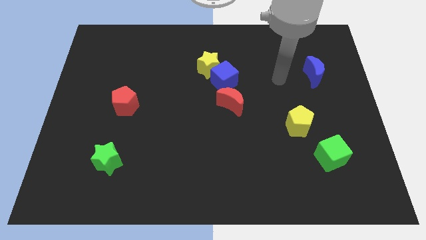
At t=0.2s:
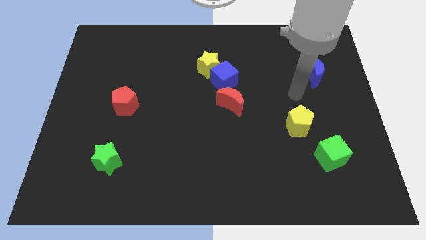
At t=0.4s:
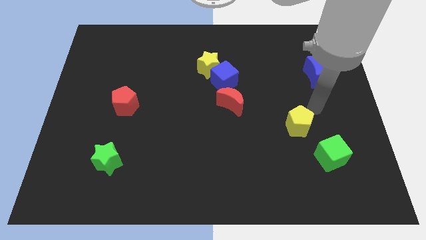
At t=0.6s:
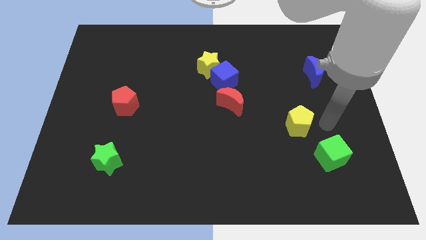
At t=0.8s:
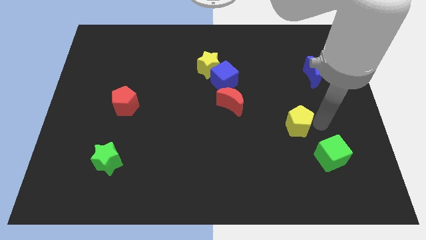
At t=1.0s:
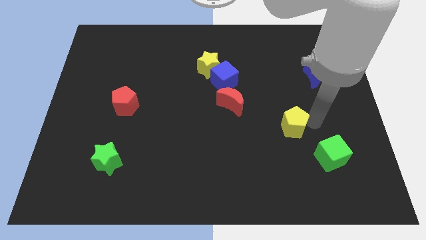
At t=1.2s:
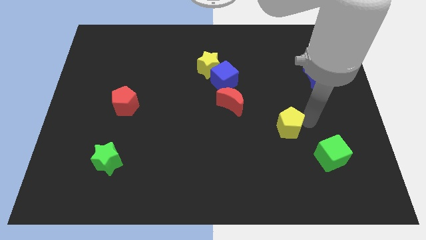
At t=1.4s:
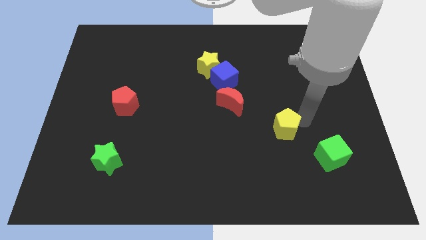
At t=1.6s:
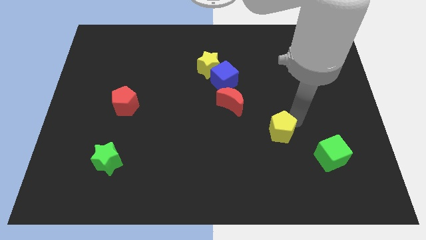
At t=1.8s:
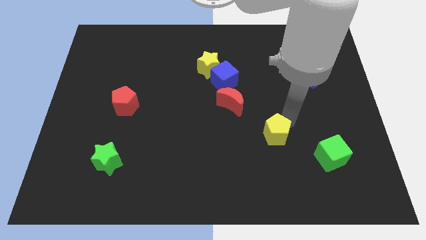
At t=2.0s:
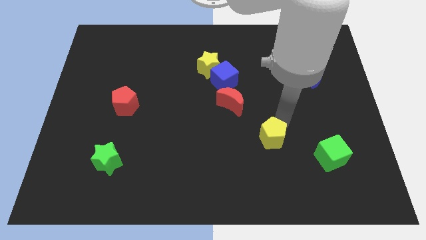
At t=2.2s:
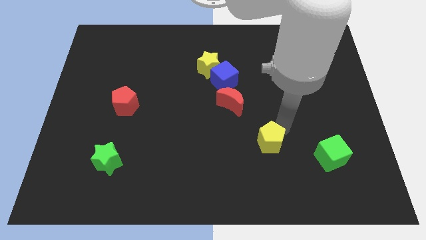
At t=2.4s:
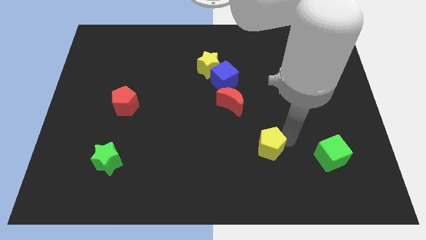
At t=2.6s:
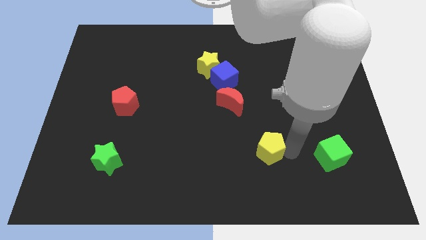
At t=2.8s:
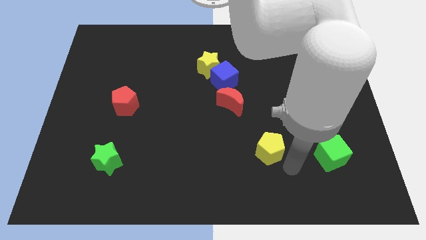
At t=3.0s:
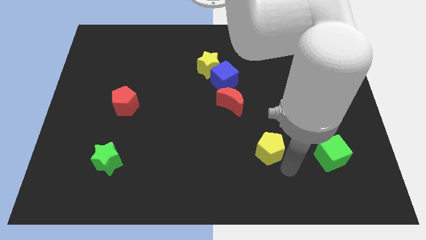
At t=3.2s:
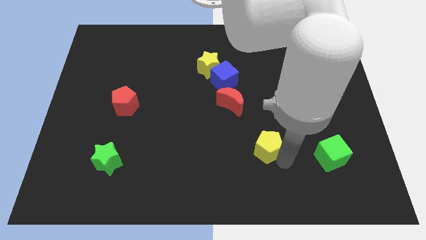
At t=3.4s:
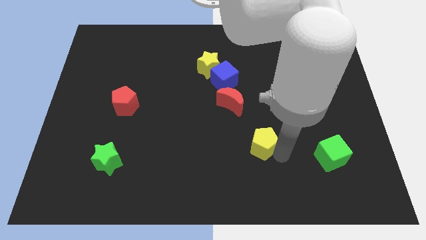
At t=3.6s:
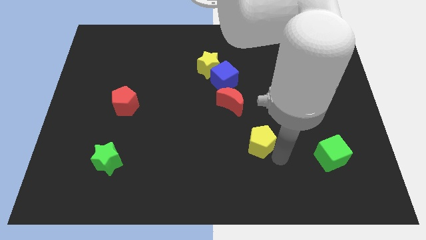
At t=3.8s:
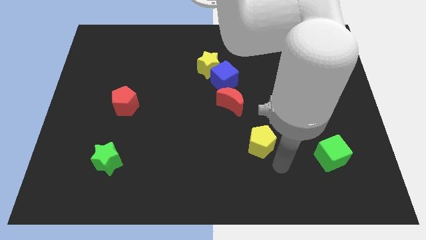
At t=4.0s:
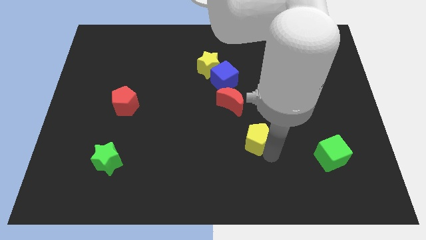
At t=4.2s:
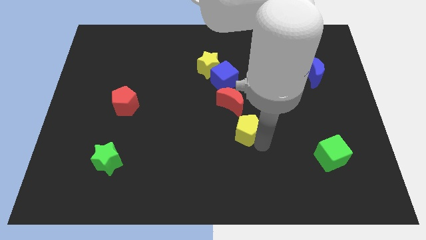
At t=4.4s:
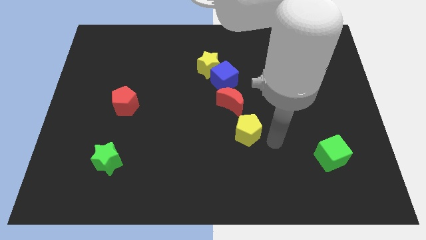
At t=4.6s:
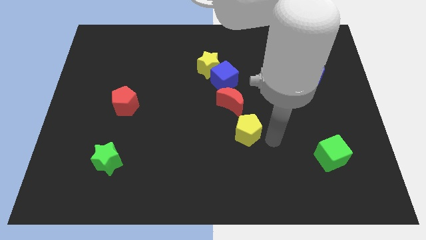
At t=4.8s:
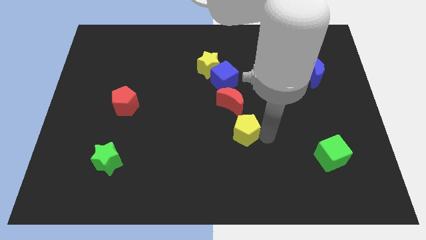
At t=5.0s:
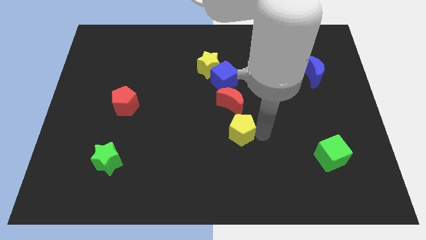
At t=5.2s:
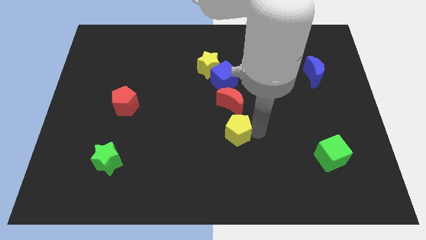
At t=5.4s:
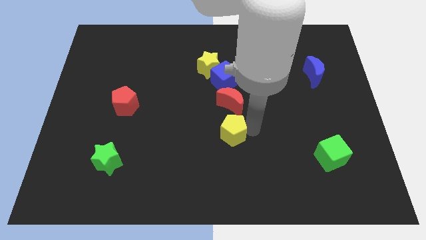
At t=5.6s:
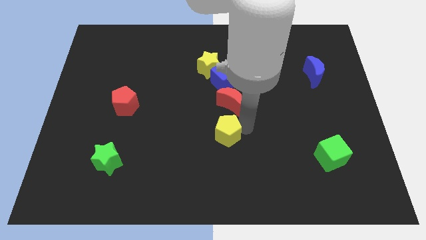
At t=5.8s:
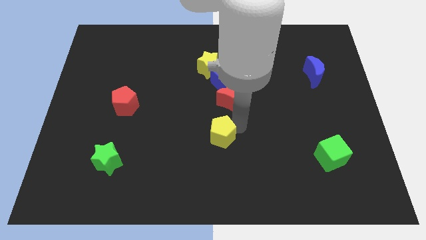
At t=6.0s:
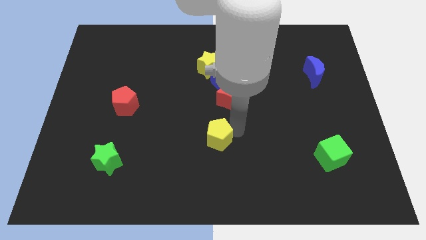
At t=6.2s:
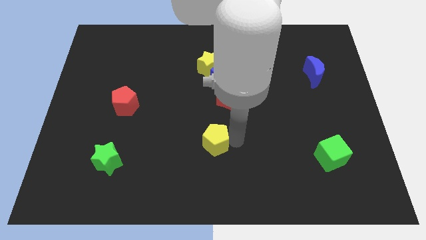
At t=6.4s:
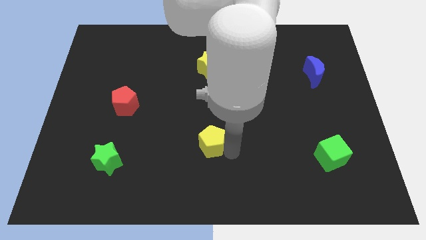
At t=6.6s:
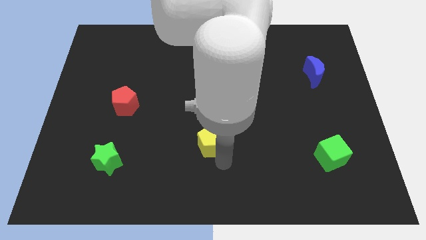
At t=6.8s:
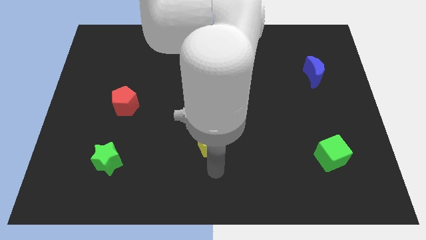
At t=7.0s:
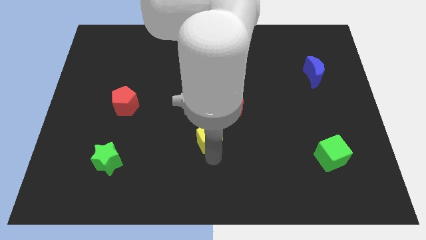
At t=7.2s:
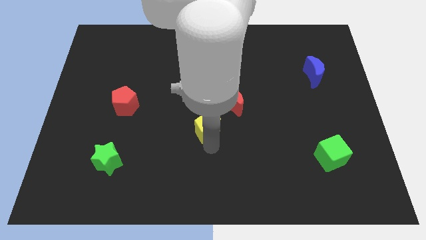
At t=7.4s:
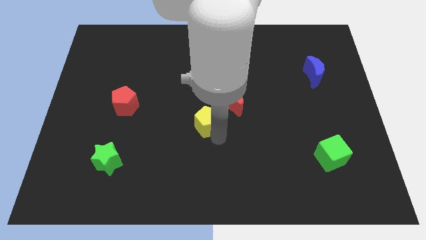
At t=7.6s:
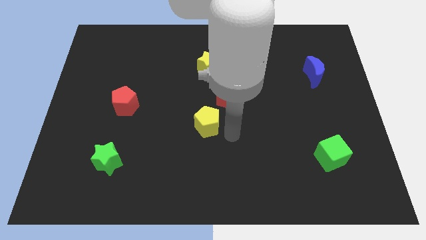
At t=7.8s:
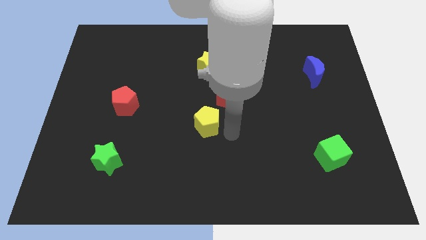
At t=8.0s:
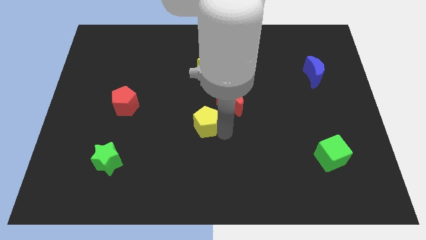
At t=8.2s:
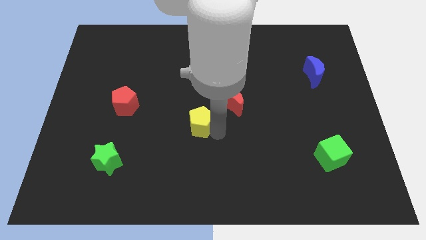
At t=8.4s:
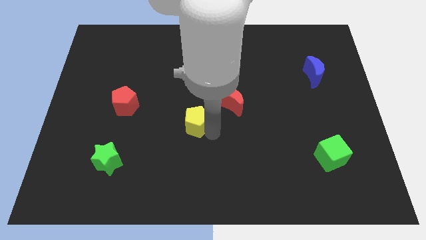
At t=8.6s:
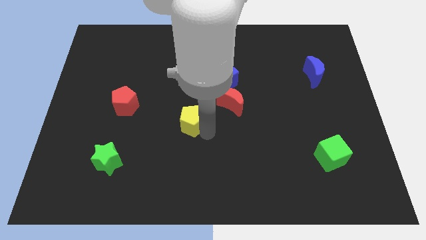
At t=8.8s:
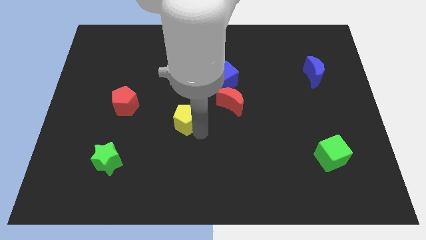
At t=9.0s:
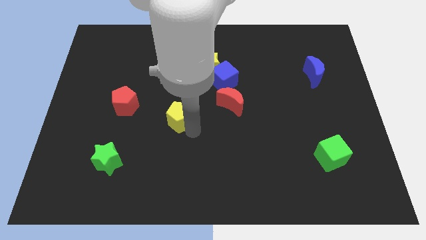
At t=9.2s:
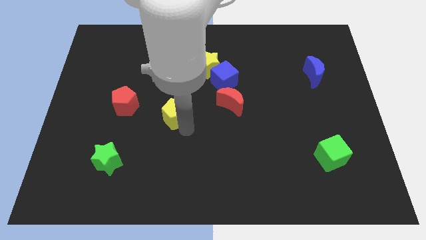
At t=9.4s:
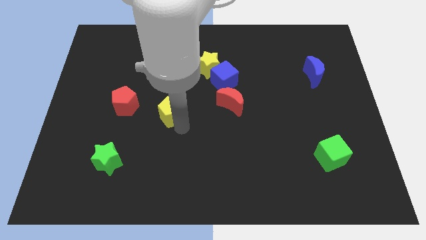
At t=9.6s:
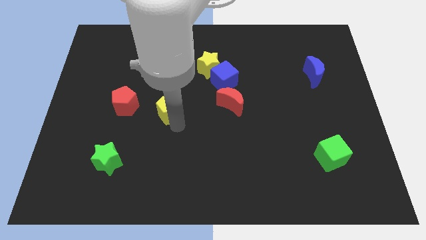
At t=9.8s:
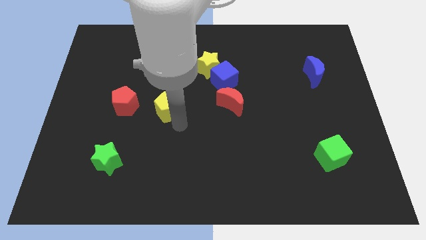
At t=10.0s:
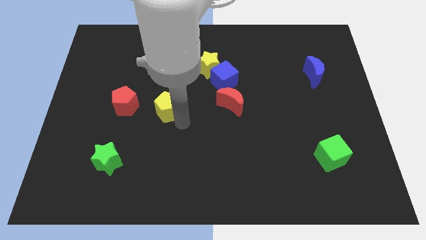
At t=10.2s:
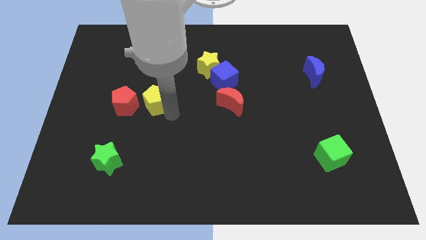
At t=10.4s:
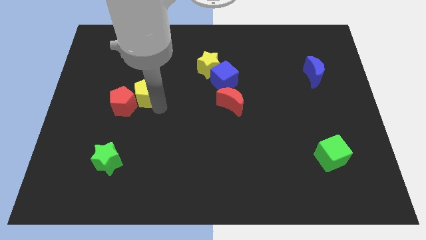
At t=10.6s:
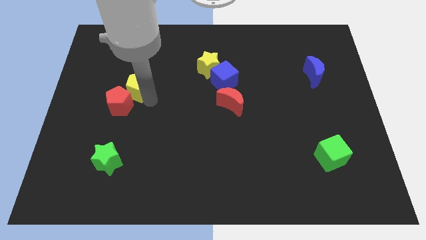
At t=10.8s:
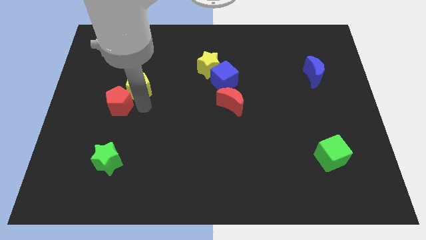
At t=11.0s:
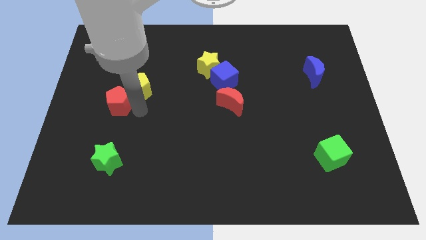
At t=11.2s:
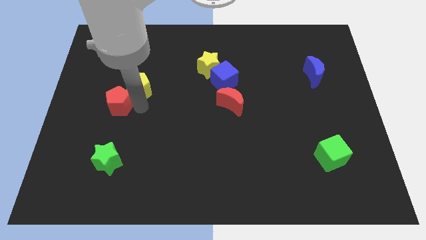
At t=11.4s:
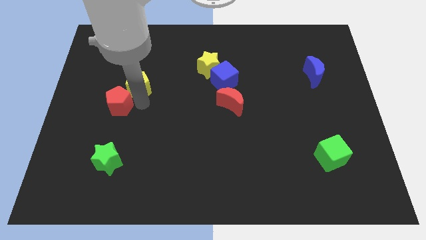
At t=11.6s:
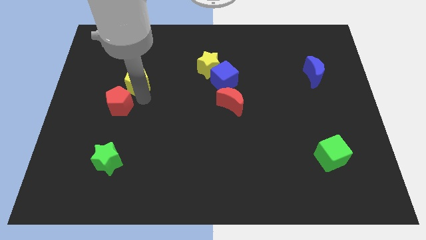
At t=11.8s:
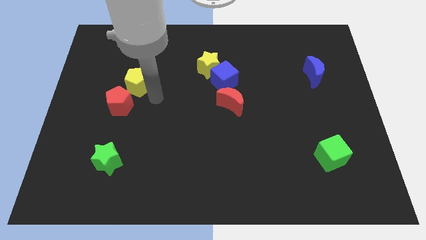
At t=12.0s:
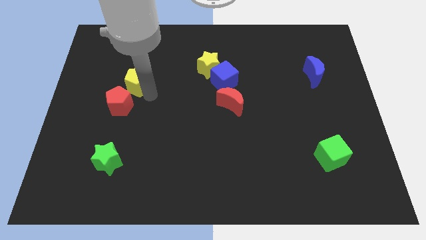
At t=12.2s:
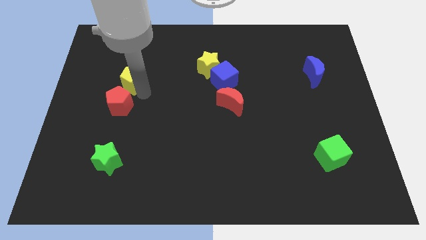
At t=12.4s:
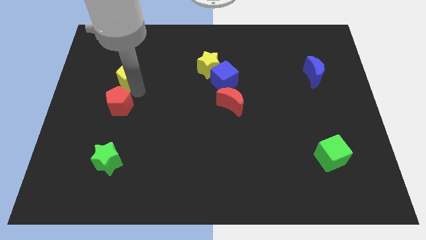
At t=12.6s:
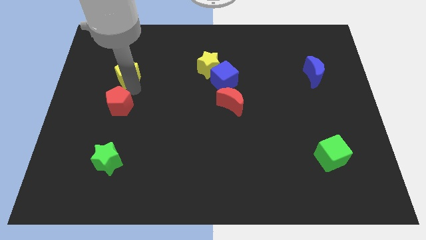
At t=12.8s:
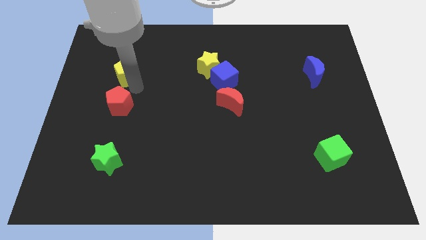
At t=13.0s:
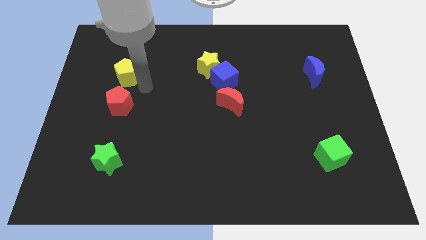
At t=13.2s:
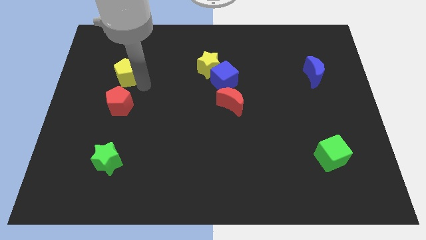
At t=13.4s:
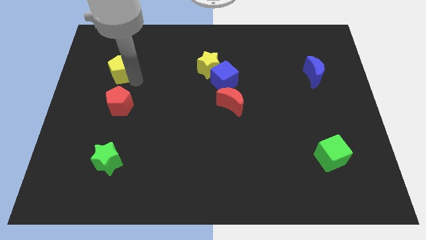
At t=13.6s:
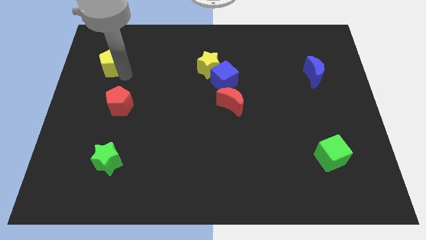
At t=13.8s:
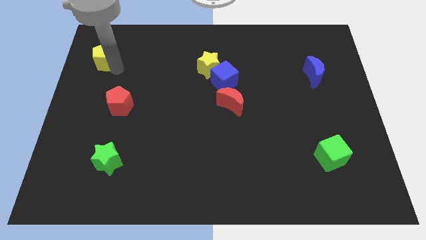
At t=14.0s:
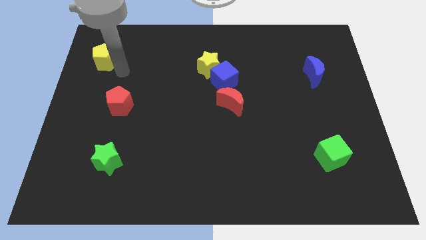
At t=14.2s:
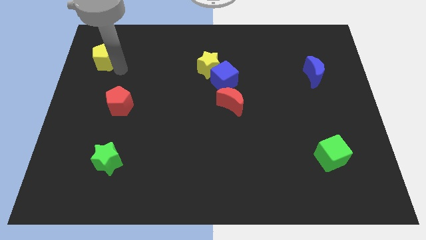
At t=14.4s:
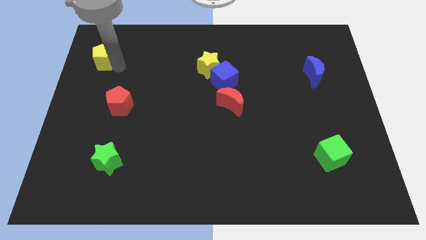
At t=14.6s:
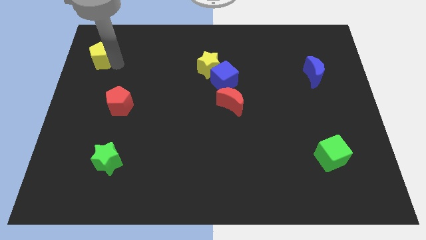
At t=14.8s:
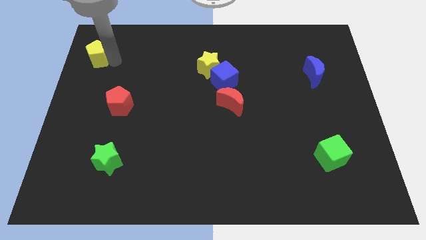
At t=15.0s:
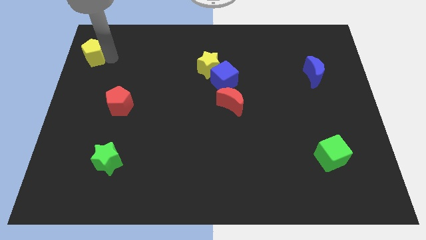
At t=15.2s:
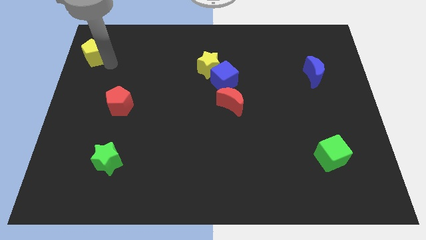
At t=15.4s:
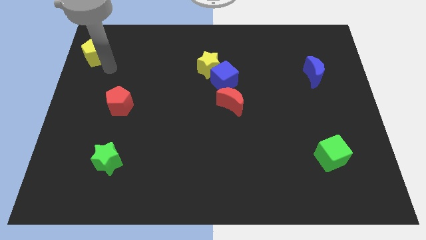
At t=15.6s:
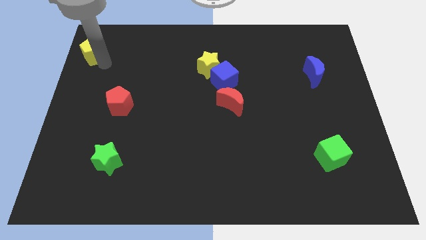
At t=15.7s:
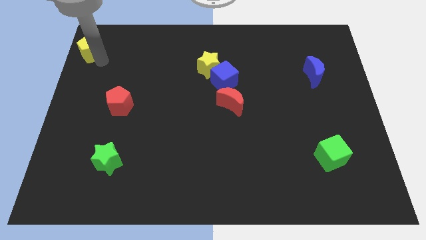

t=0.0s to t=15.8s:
put the yellow pentagon to the upper left corner
